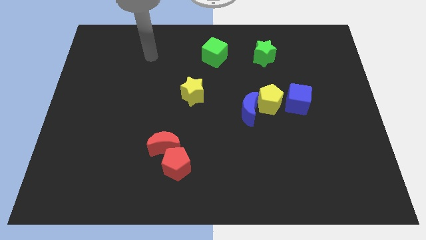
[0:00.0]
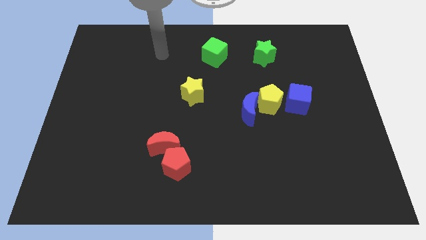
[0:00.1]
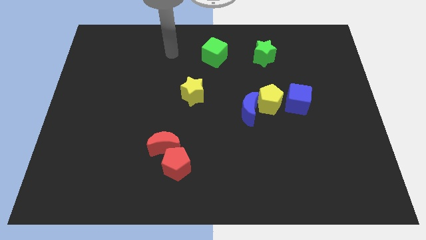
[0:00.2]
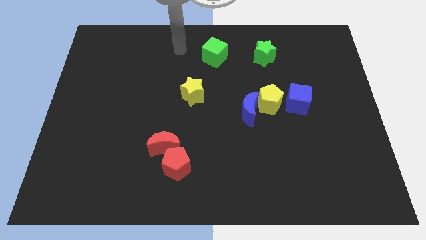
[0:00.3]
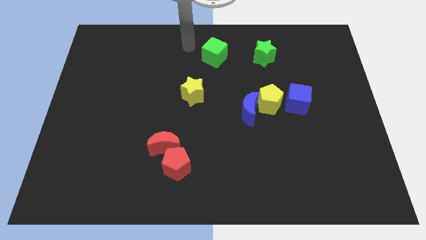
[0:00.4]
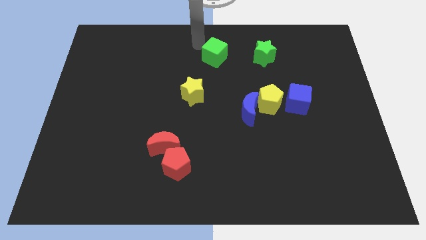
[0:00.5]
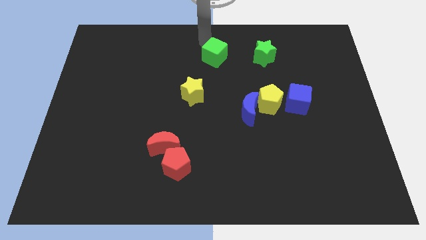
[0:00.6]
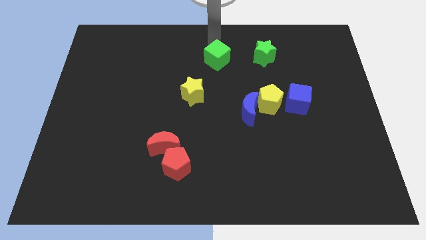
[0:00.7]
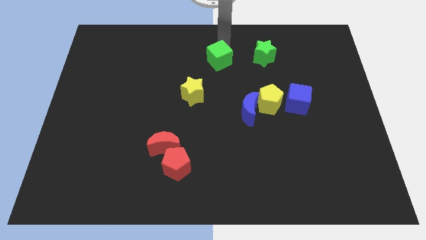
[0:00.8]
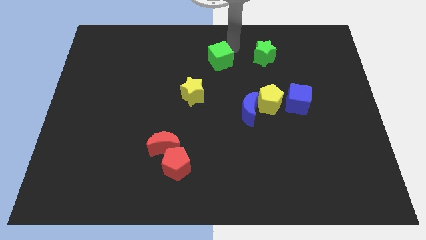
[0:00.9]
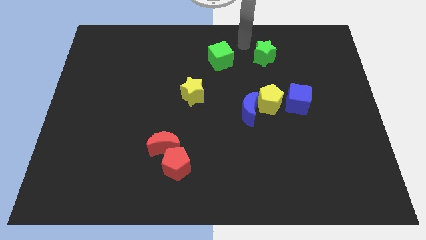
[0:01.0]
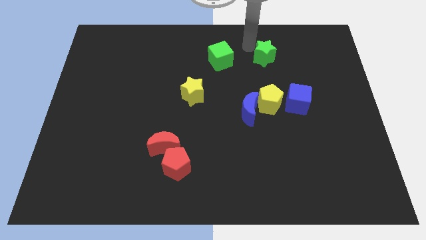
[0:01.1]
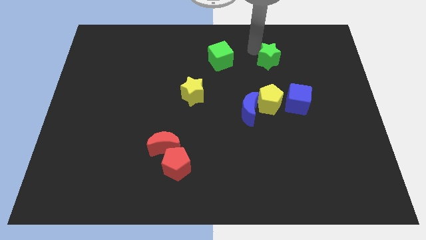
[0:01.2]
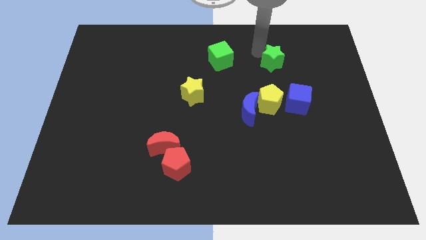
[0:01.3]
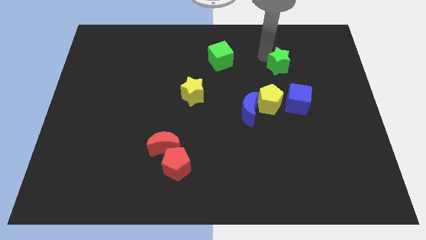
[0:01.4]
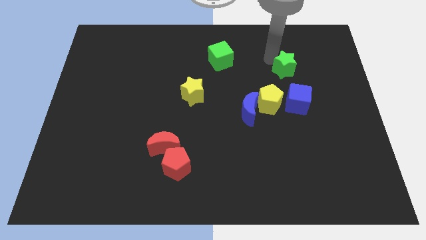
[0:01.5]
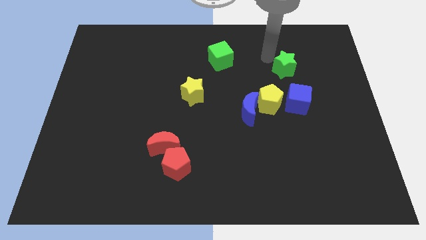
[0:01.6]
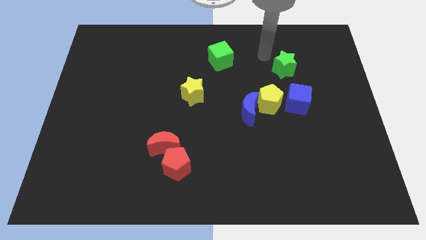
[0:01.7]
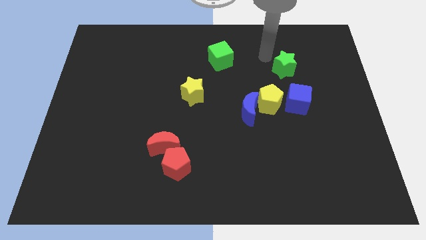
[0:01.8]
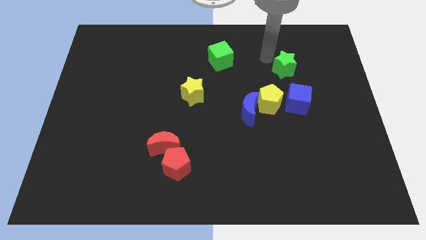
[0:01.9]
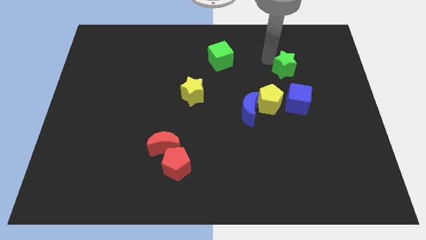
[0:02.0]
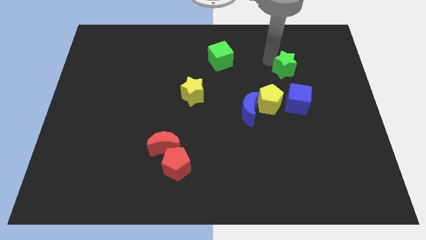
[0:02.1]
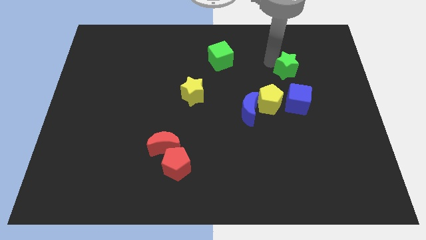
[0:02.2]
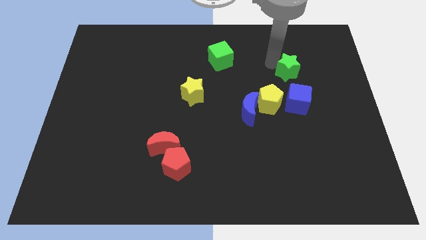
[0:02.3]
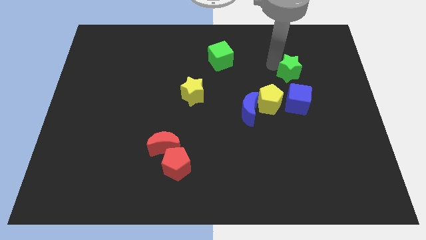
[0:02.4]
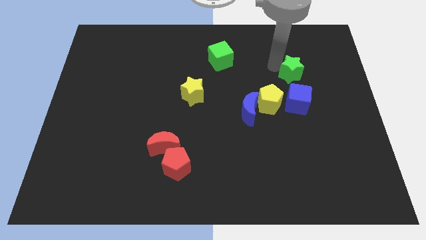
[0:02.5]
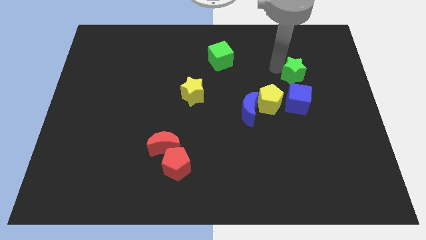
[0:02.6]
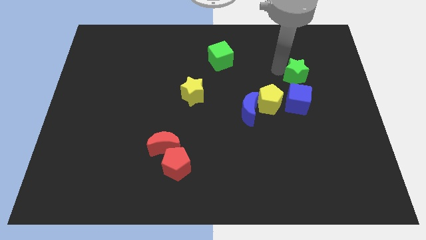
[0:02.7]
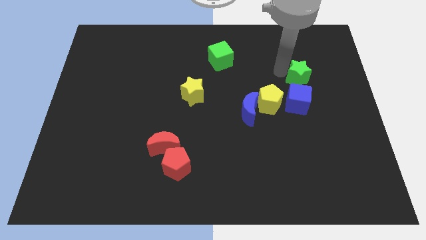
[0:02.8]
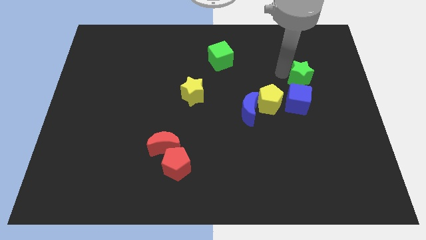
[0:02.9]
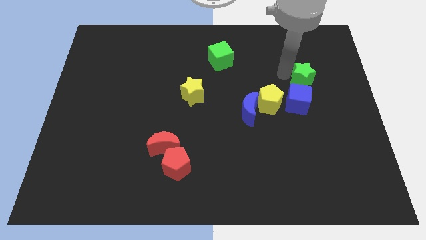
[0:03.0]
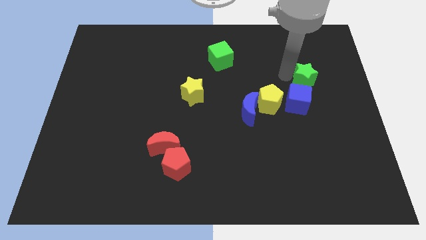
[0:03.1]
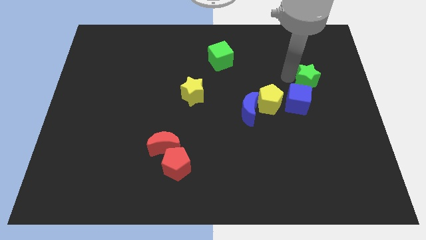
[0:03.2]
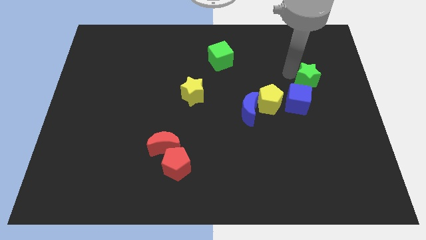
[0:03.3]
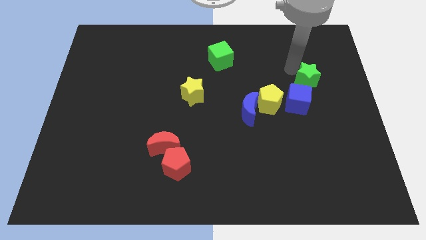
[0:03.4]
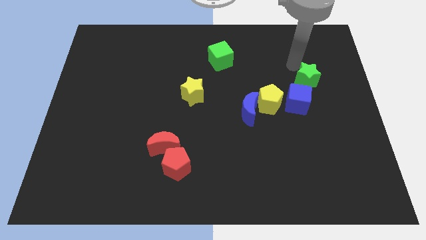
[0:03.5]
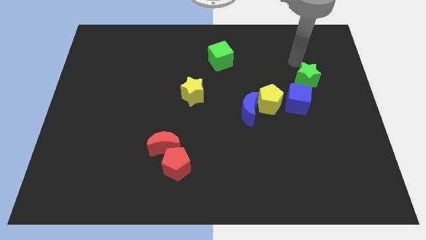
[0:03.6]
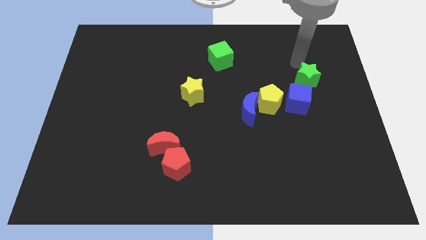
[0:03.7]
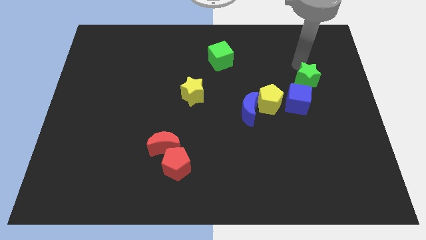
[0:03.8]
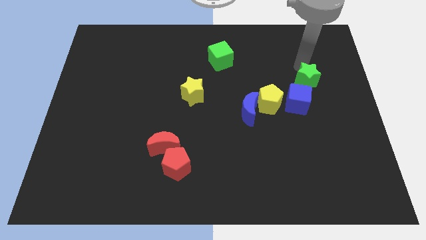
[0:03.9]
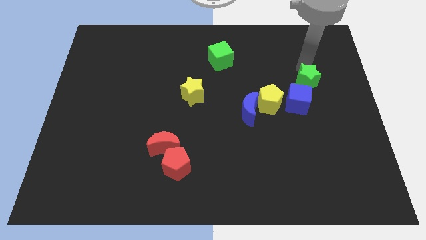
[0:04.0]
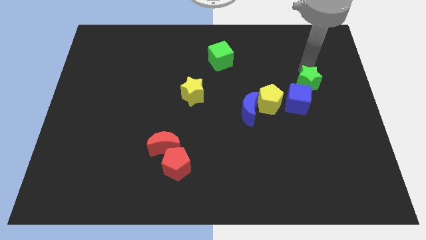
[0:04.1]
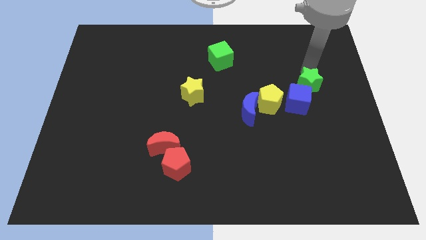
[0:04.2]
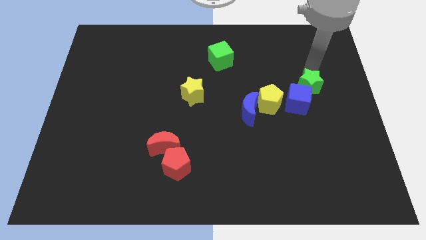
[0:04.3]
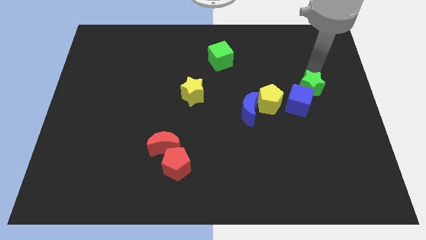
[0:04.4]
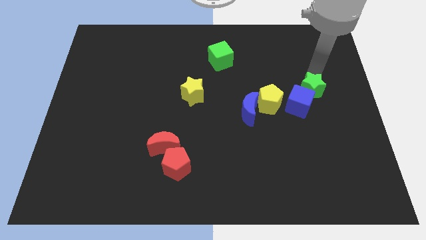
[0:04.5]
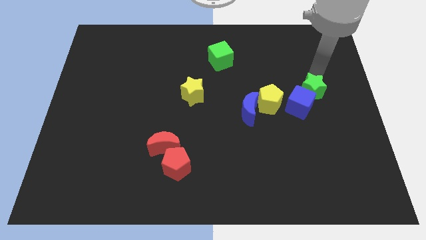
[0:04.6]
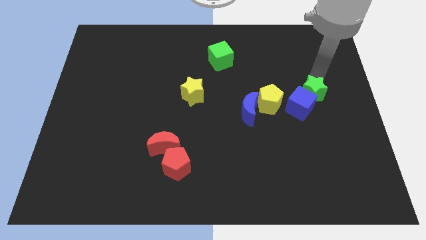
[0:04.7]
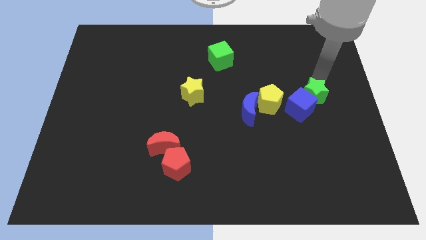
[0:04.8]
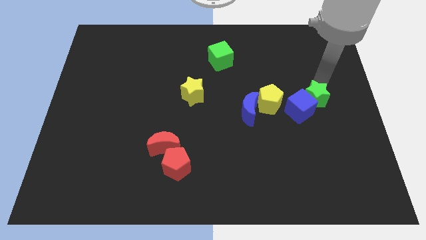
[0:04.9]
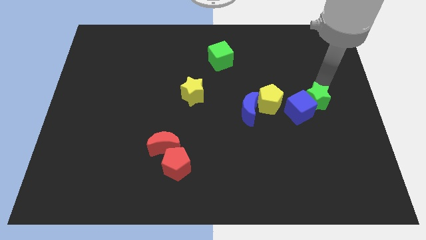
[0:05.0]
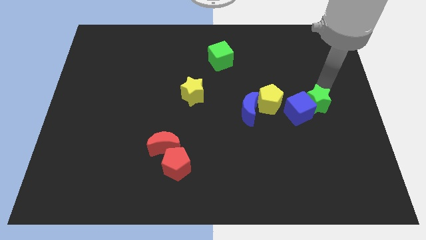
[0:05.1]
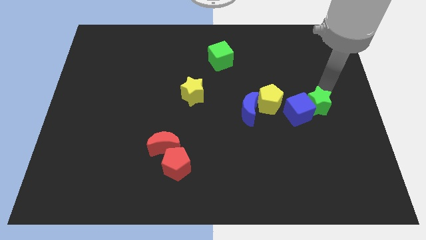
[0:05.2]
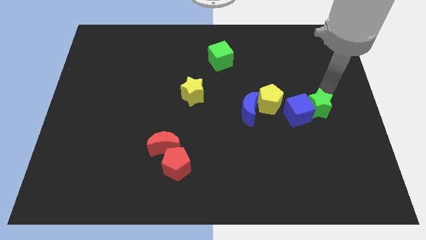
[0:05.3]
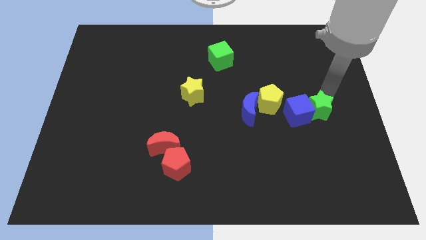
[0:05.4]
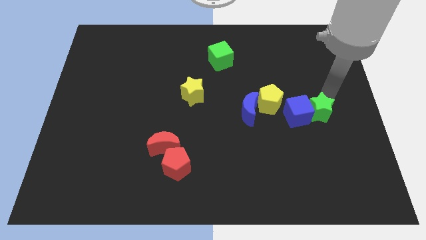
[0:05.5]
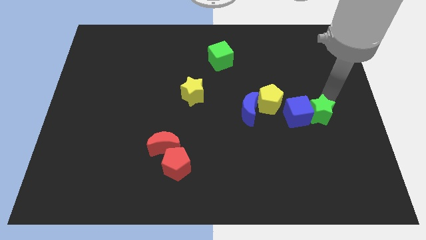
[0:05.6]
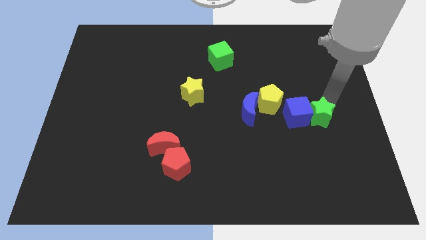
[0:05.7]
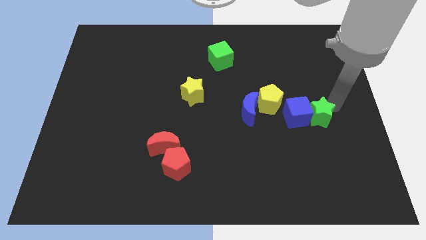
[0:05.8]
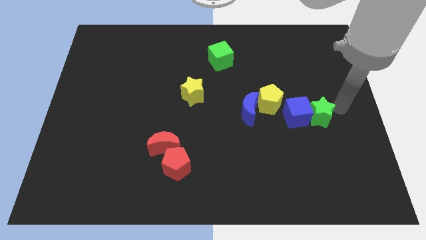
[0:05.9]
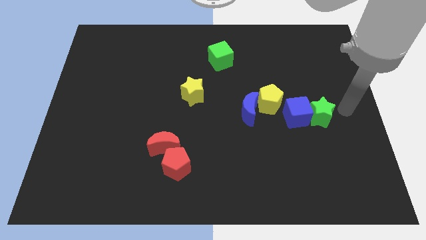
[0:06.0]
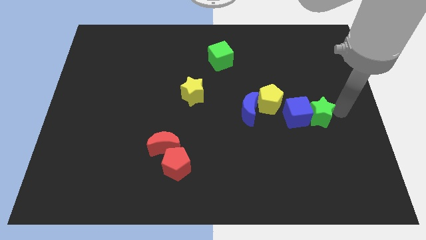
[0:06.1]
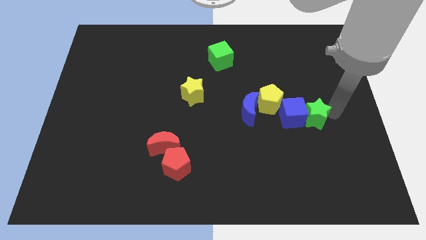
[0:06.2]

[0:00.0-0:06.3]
push the green star to the bottom right of the yellow pentagon
